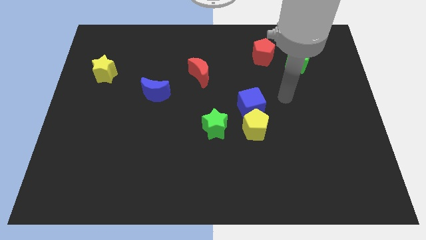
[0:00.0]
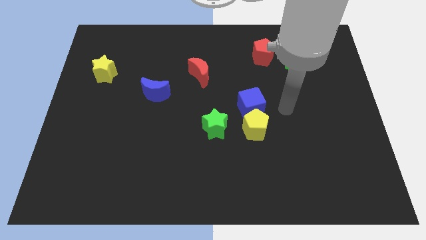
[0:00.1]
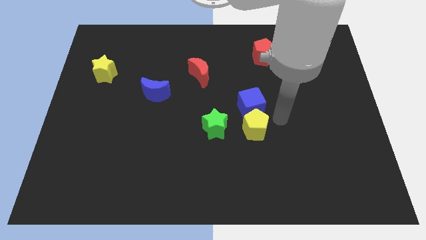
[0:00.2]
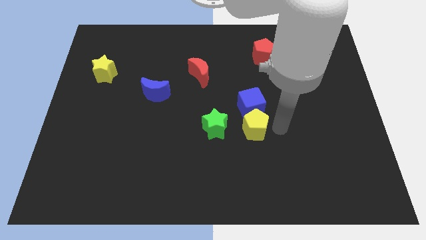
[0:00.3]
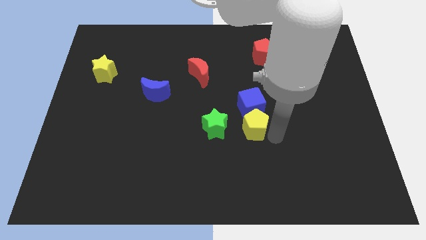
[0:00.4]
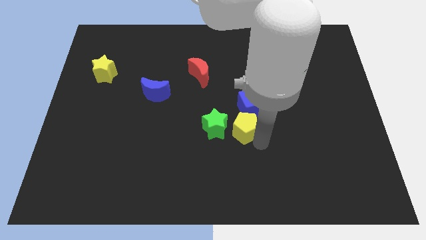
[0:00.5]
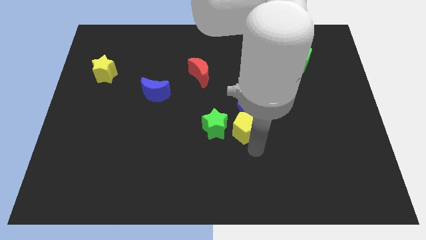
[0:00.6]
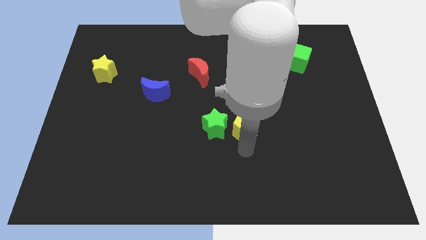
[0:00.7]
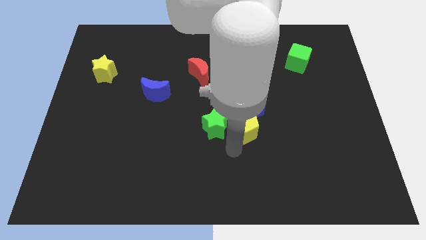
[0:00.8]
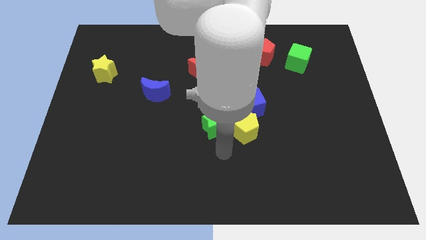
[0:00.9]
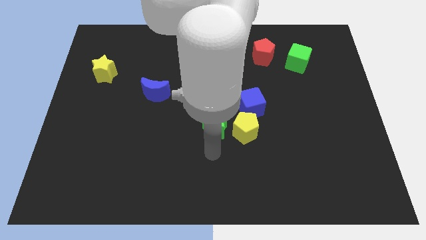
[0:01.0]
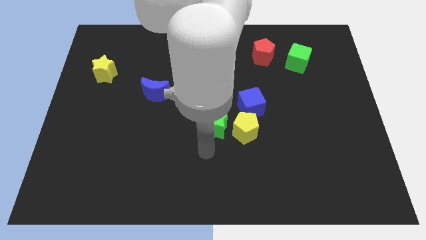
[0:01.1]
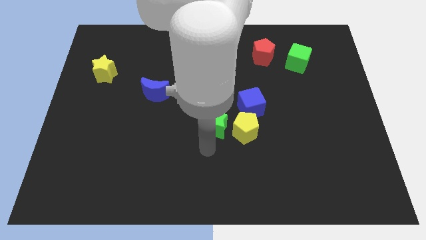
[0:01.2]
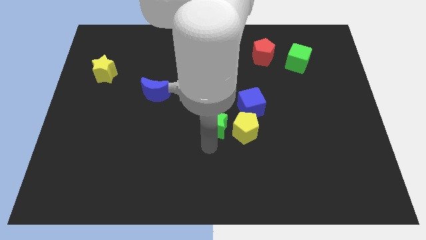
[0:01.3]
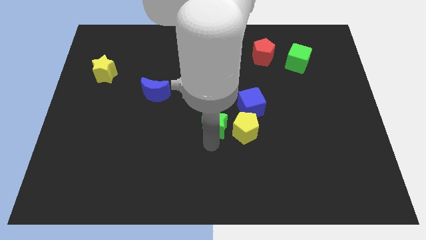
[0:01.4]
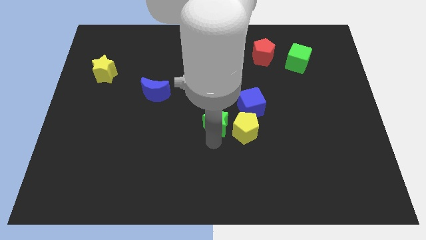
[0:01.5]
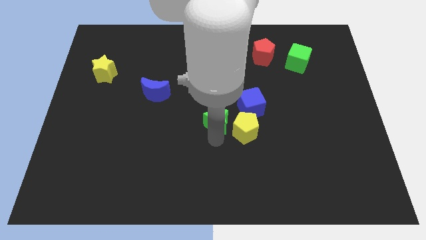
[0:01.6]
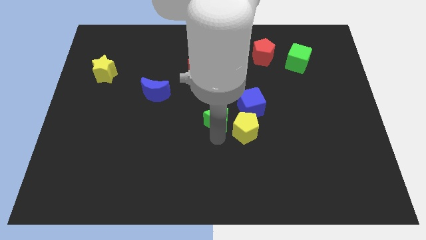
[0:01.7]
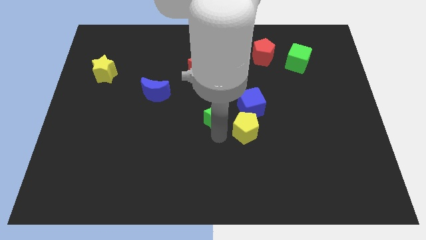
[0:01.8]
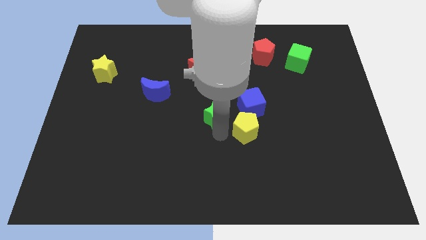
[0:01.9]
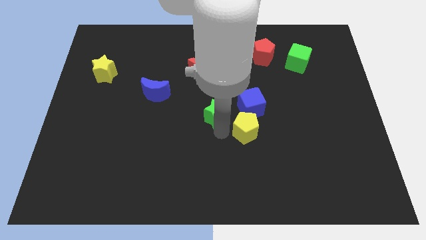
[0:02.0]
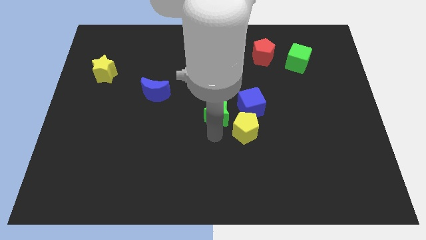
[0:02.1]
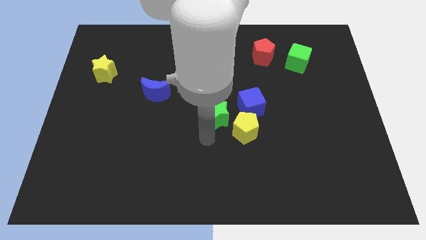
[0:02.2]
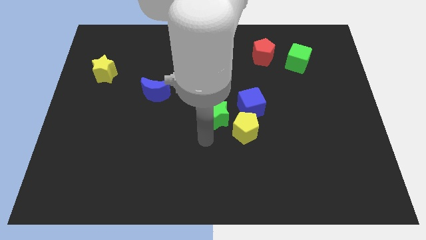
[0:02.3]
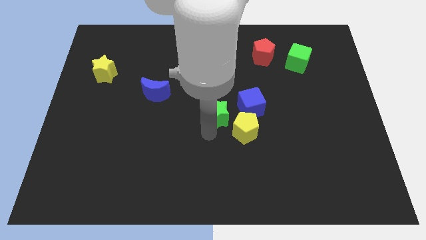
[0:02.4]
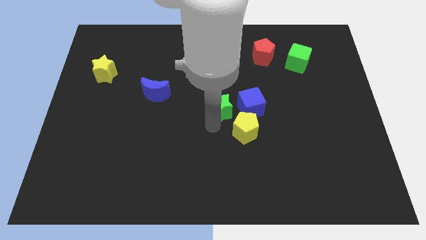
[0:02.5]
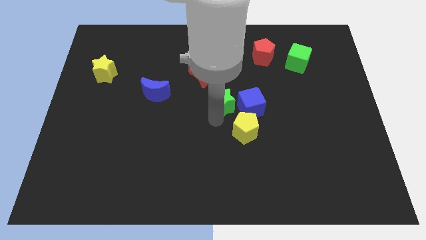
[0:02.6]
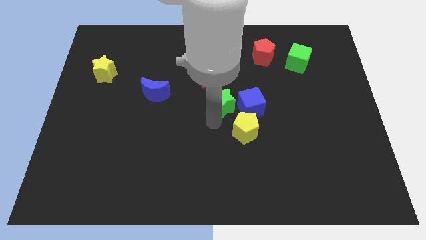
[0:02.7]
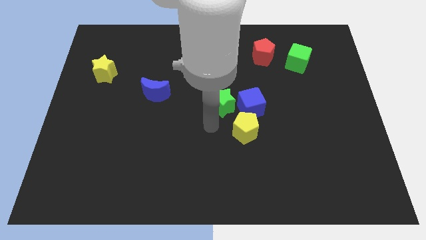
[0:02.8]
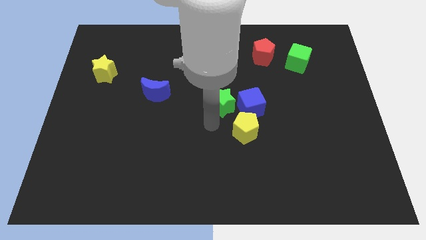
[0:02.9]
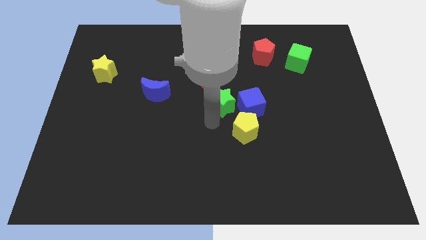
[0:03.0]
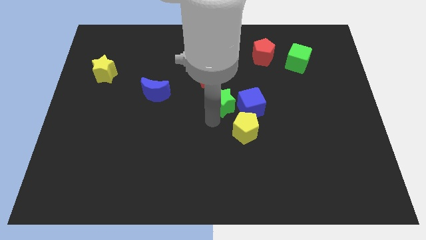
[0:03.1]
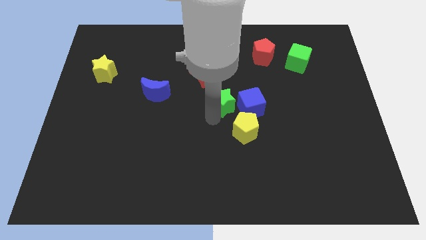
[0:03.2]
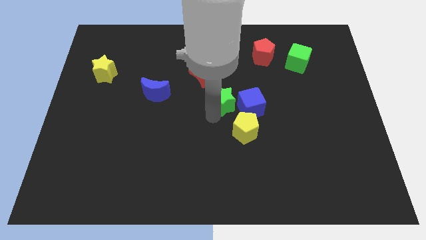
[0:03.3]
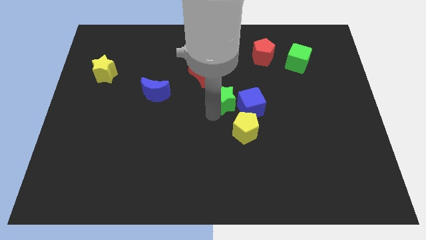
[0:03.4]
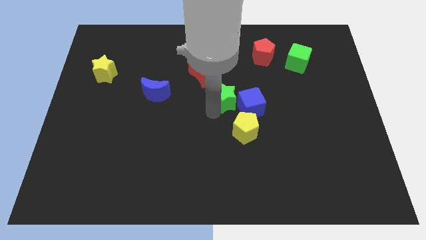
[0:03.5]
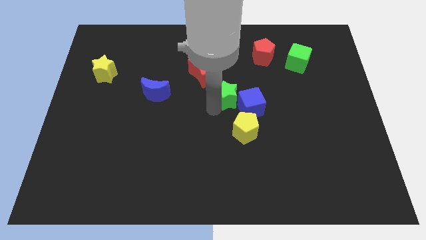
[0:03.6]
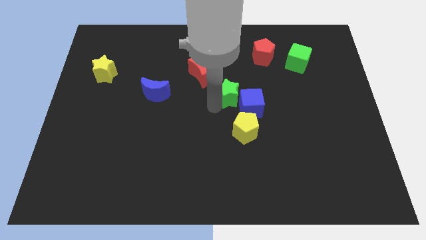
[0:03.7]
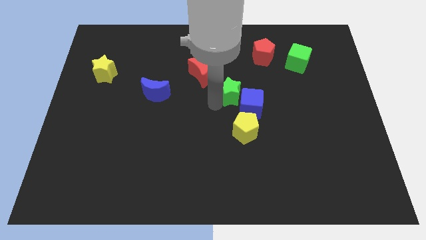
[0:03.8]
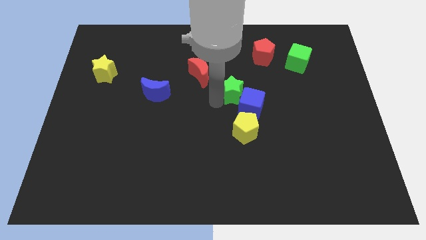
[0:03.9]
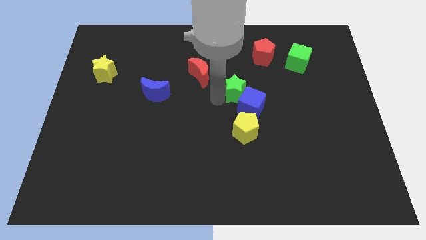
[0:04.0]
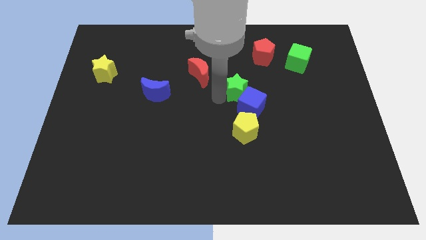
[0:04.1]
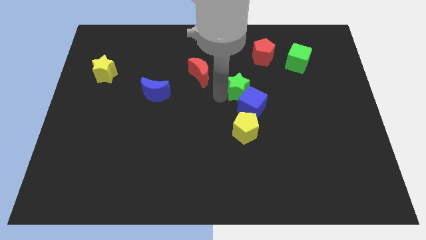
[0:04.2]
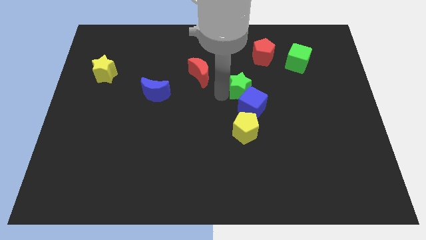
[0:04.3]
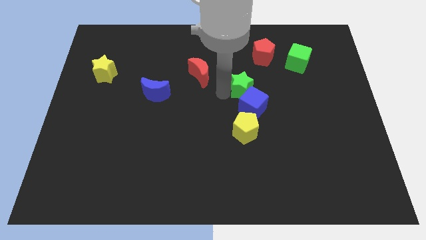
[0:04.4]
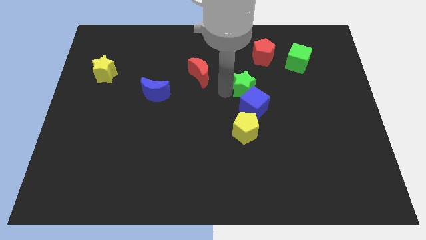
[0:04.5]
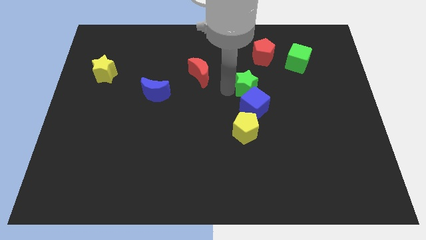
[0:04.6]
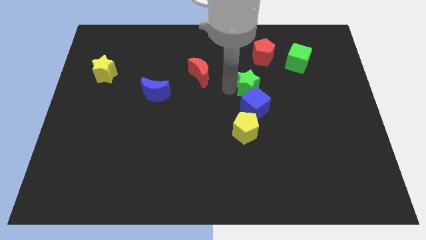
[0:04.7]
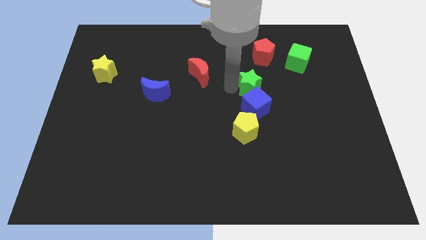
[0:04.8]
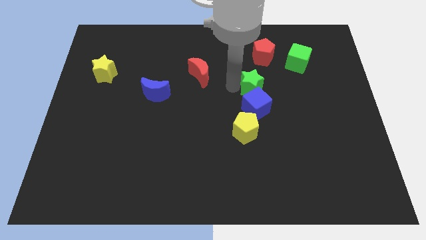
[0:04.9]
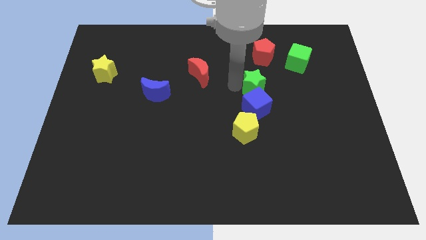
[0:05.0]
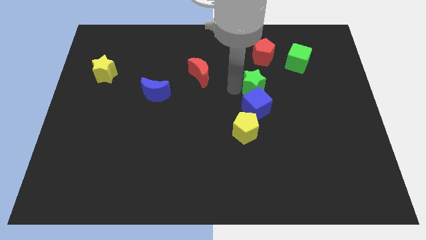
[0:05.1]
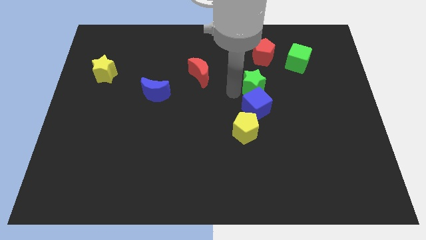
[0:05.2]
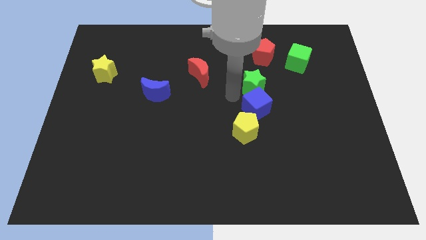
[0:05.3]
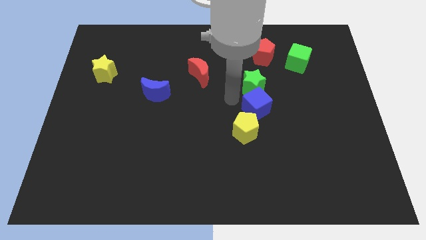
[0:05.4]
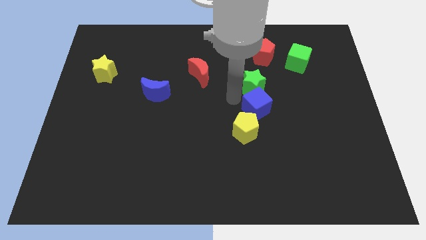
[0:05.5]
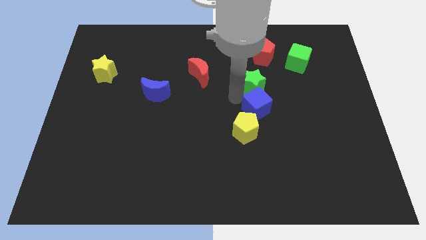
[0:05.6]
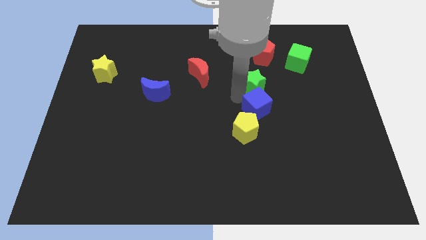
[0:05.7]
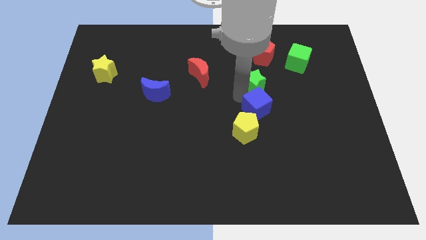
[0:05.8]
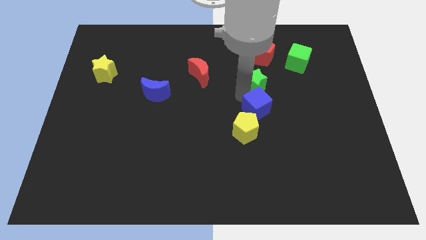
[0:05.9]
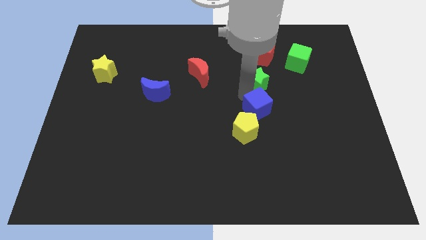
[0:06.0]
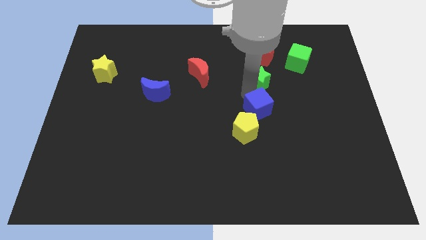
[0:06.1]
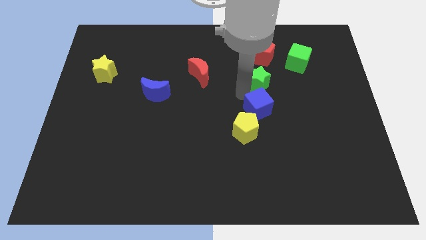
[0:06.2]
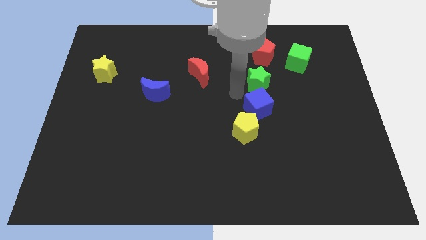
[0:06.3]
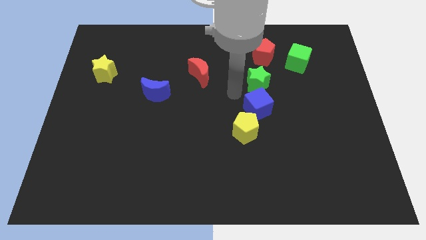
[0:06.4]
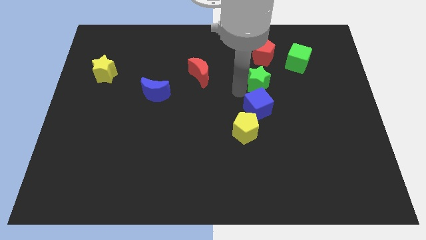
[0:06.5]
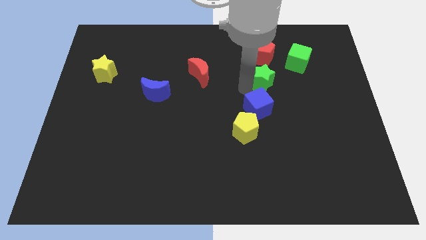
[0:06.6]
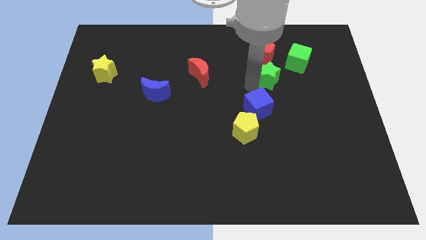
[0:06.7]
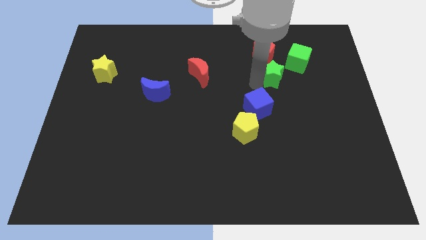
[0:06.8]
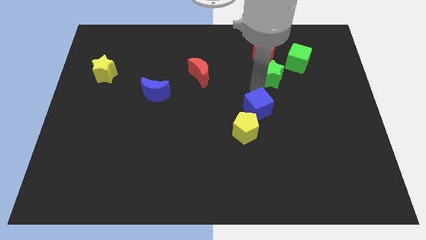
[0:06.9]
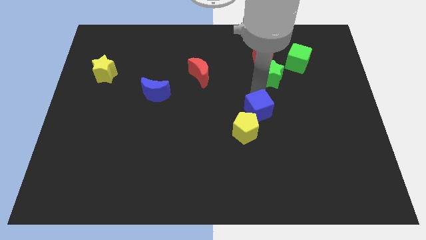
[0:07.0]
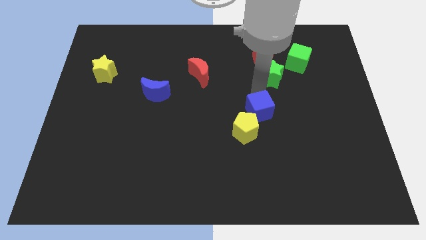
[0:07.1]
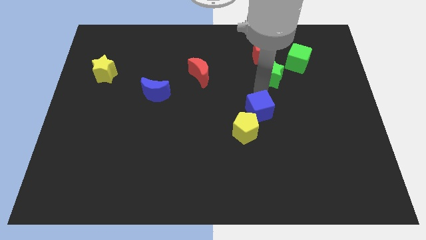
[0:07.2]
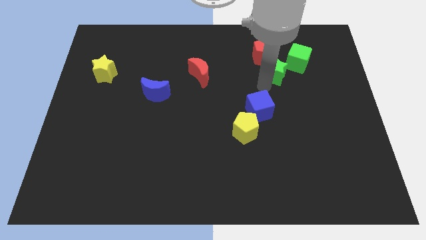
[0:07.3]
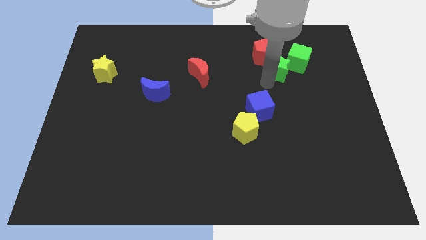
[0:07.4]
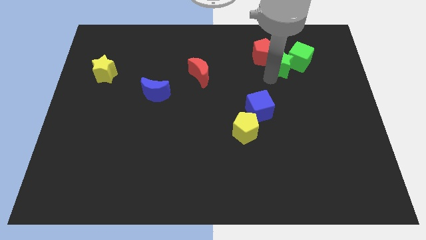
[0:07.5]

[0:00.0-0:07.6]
put the green star towards the green cube
